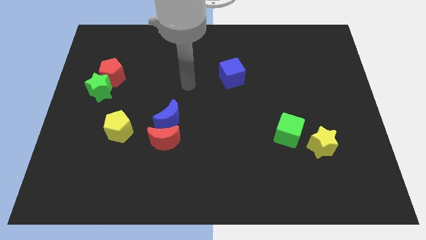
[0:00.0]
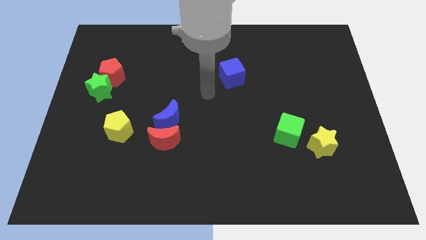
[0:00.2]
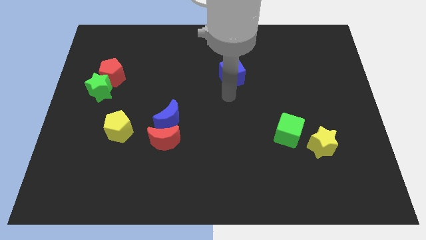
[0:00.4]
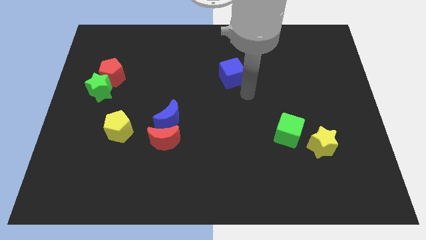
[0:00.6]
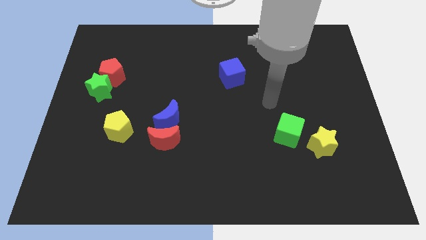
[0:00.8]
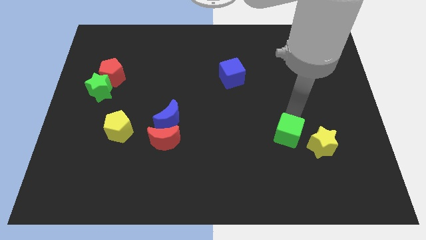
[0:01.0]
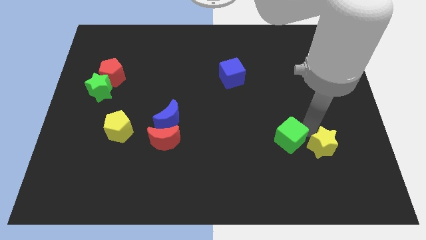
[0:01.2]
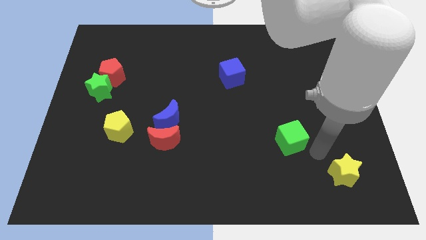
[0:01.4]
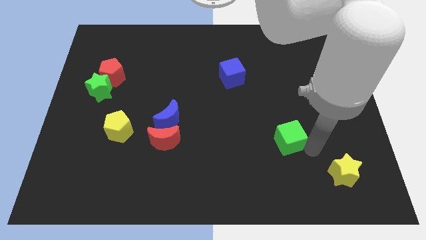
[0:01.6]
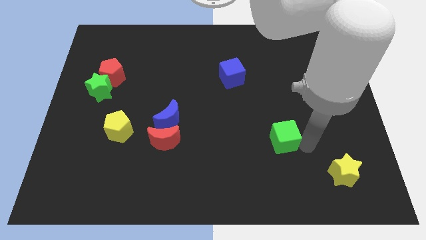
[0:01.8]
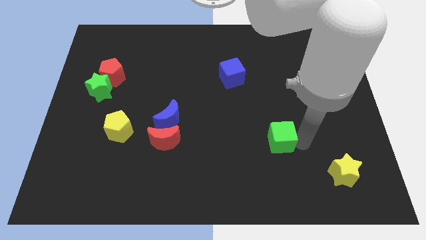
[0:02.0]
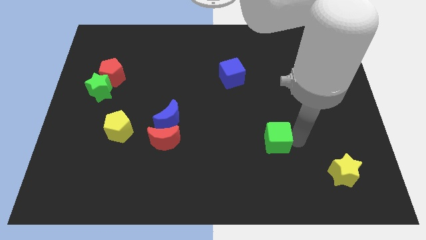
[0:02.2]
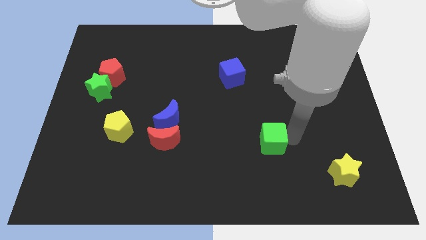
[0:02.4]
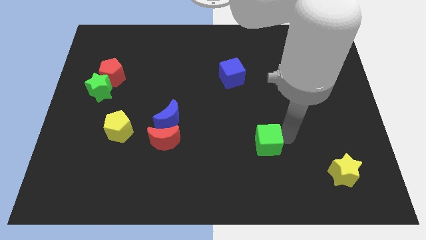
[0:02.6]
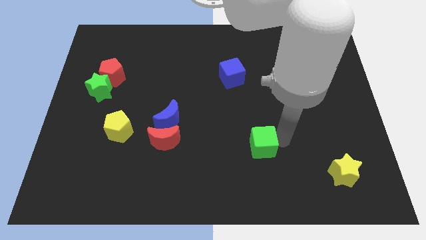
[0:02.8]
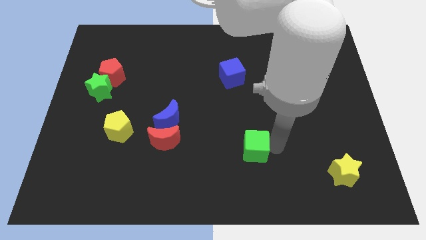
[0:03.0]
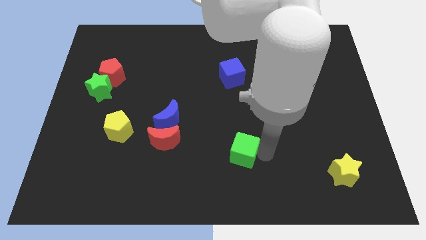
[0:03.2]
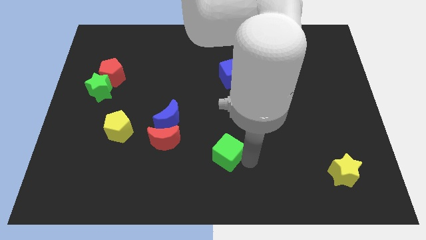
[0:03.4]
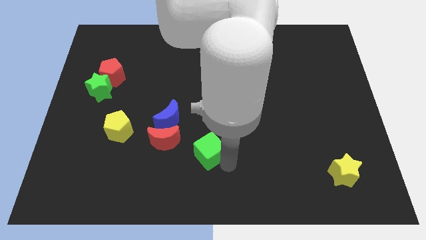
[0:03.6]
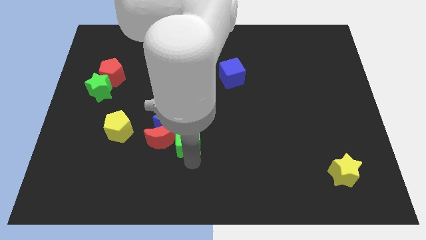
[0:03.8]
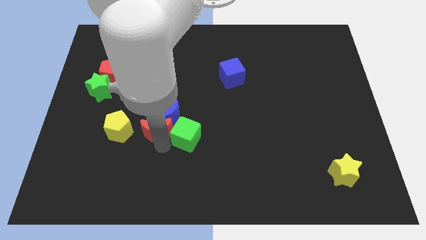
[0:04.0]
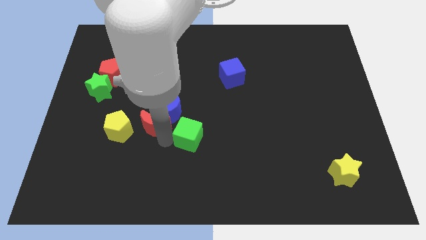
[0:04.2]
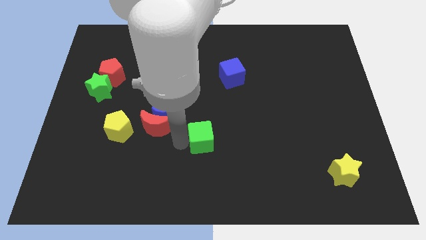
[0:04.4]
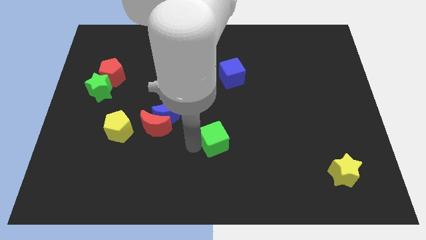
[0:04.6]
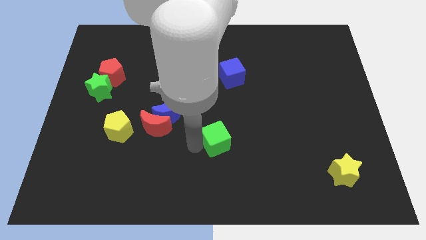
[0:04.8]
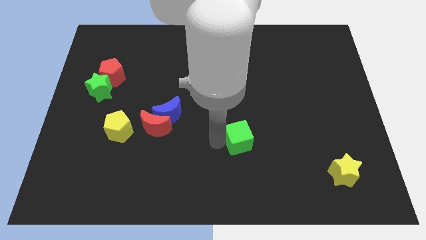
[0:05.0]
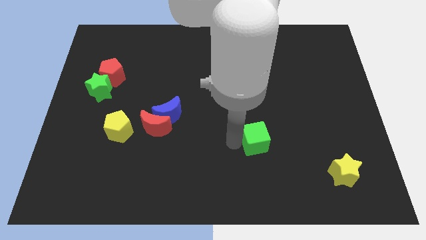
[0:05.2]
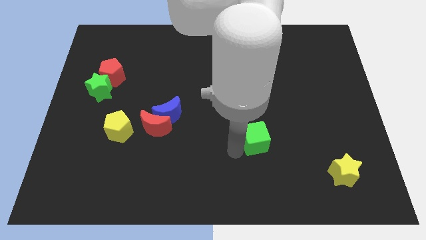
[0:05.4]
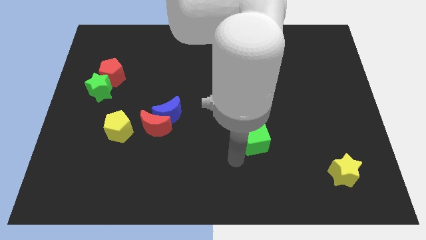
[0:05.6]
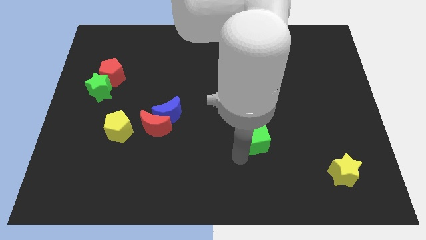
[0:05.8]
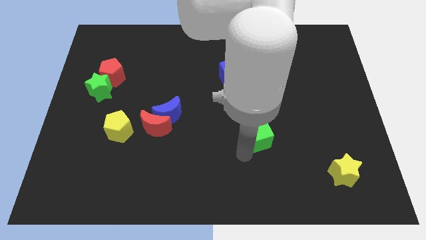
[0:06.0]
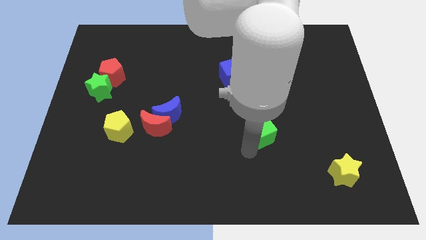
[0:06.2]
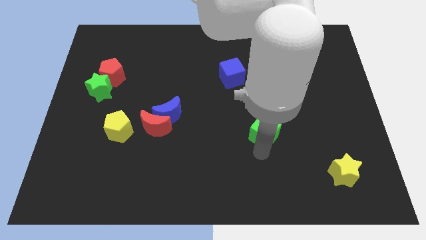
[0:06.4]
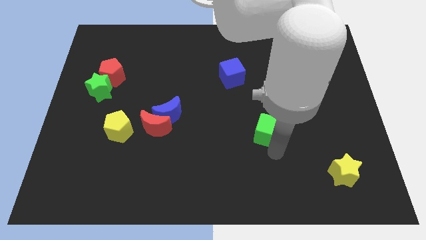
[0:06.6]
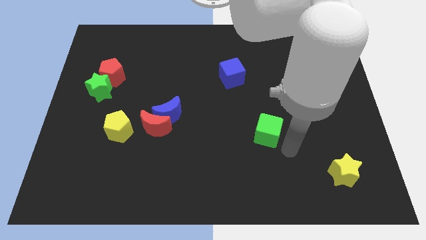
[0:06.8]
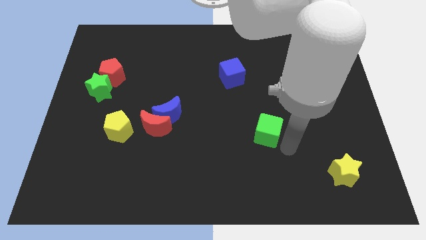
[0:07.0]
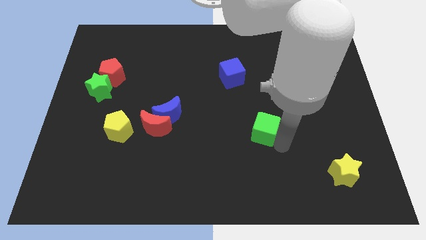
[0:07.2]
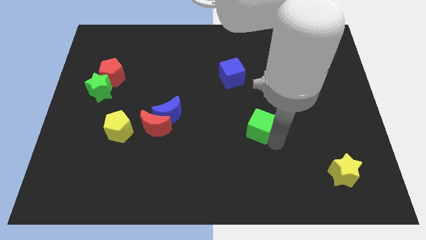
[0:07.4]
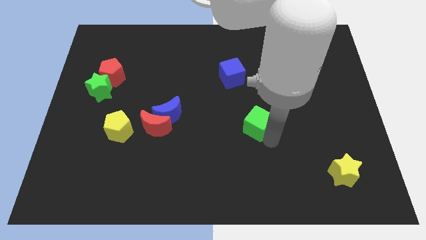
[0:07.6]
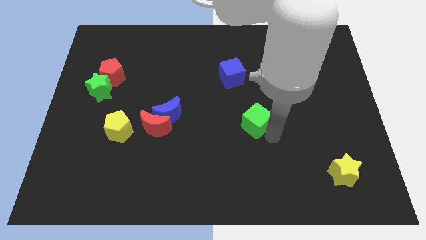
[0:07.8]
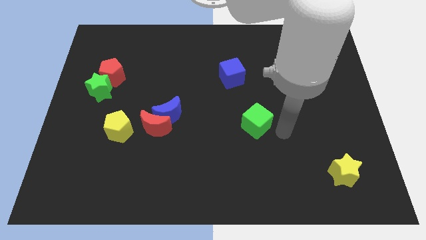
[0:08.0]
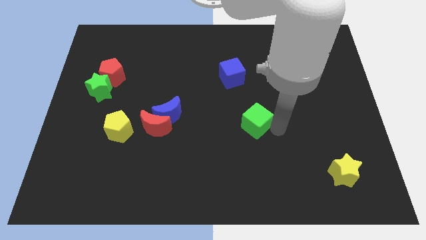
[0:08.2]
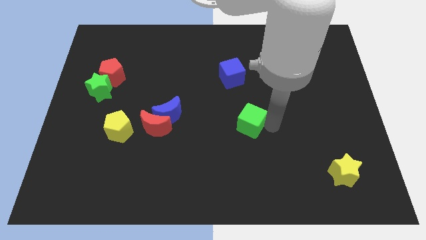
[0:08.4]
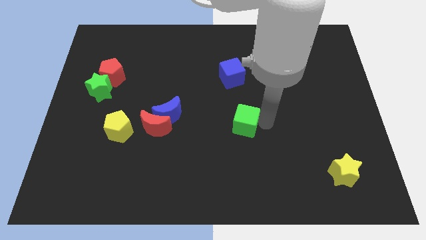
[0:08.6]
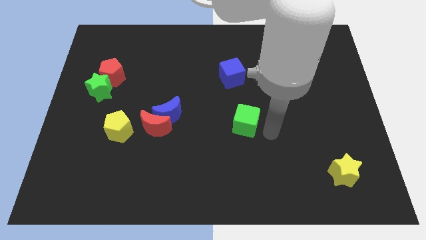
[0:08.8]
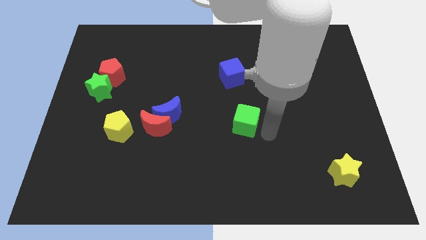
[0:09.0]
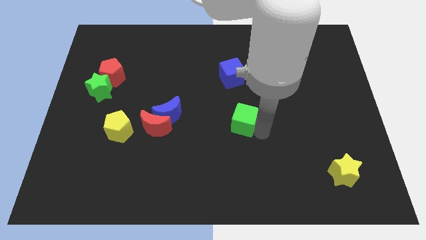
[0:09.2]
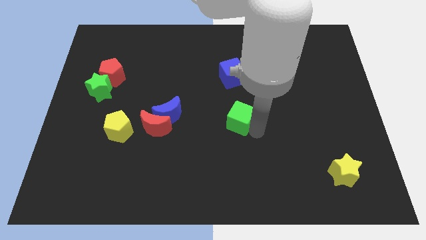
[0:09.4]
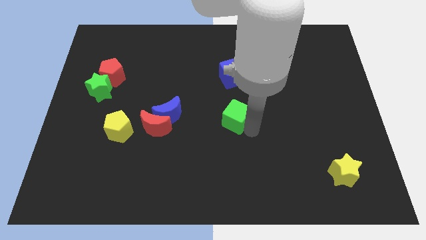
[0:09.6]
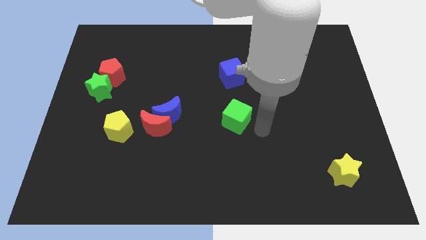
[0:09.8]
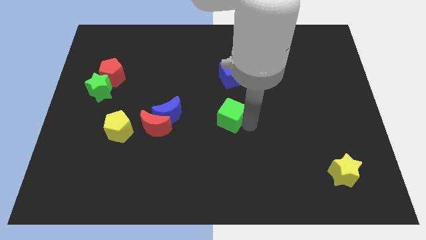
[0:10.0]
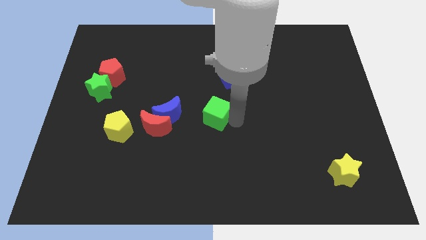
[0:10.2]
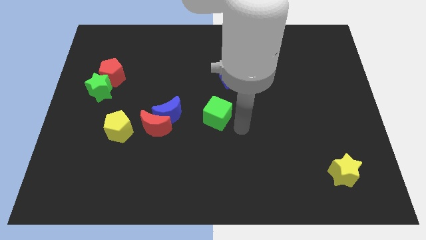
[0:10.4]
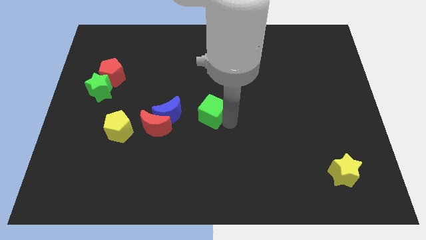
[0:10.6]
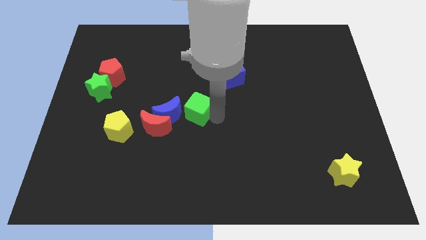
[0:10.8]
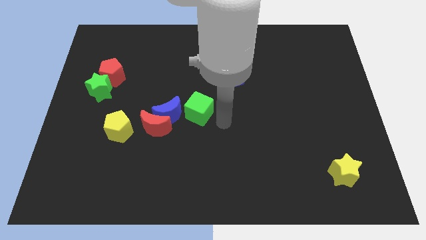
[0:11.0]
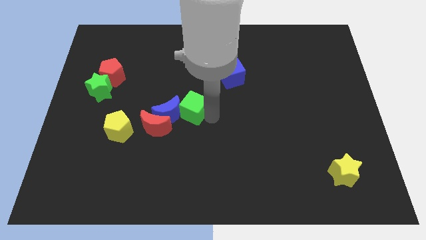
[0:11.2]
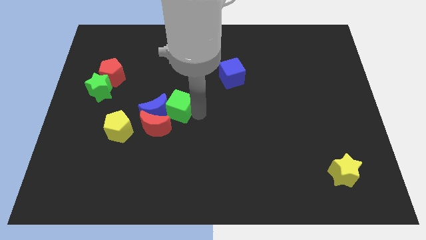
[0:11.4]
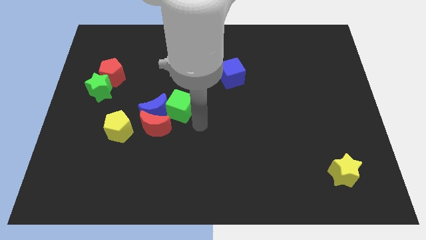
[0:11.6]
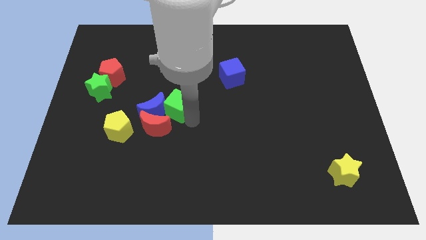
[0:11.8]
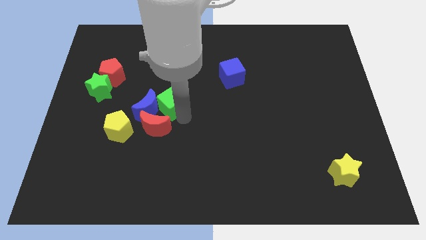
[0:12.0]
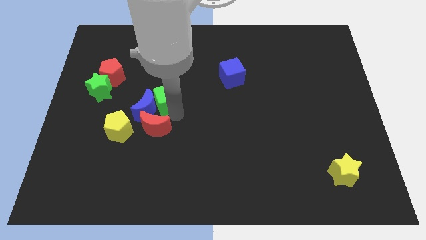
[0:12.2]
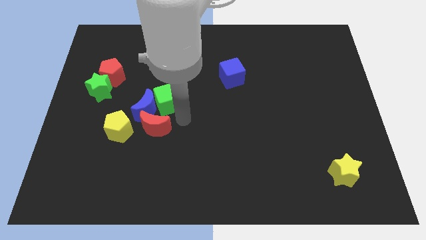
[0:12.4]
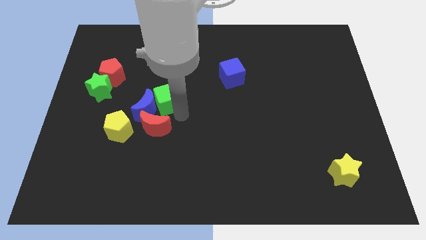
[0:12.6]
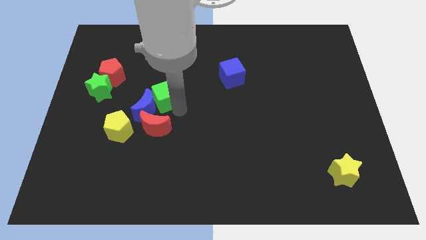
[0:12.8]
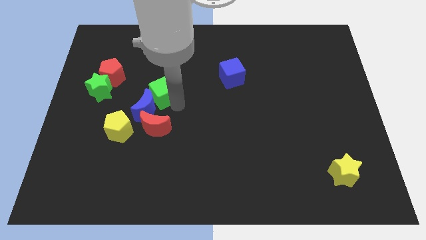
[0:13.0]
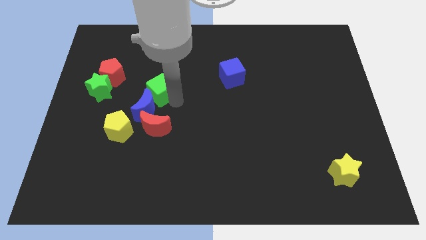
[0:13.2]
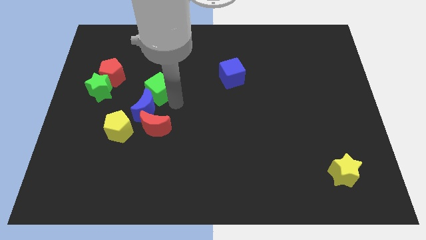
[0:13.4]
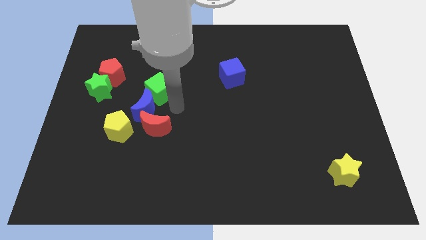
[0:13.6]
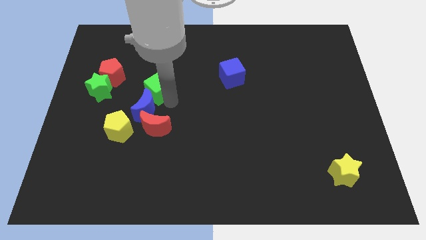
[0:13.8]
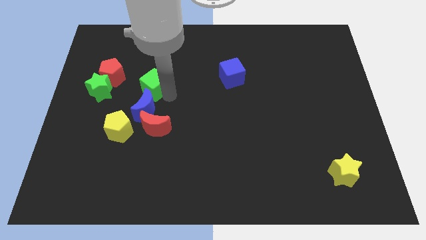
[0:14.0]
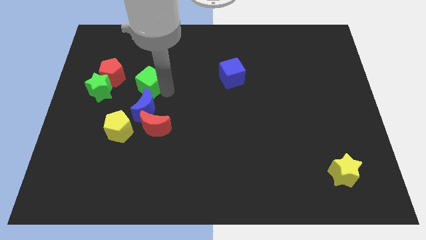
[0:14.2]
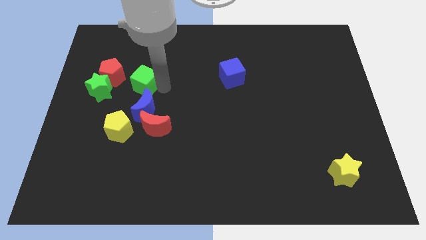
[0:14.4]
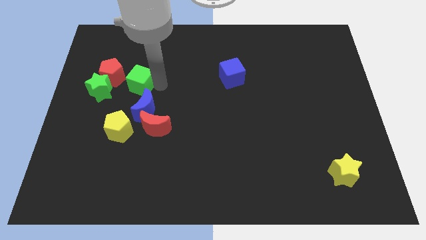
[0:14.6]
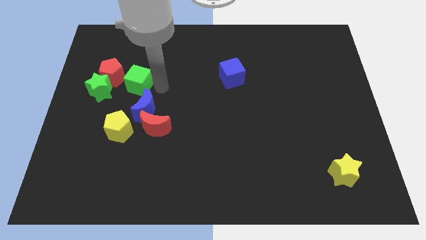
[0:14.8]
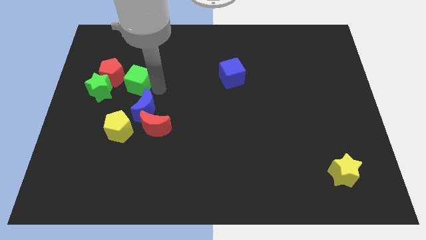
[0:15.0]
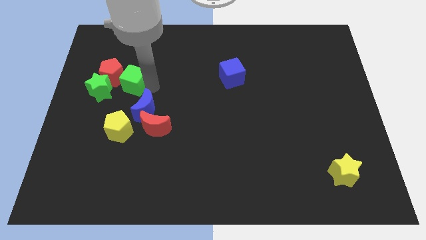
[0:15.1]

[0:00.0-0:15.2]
move the green cube next to the red pentagon
